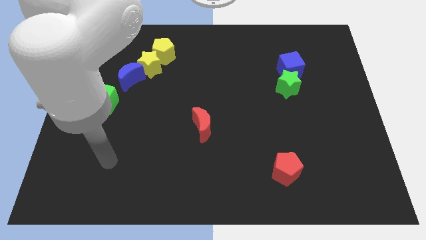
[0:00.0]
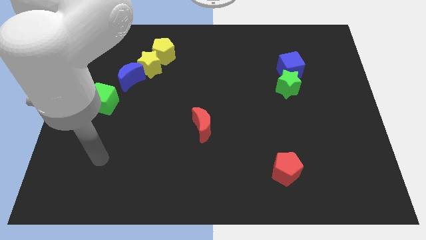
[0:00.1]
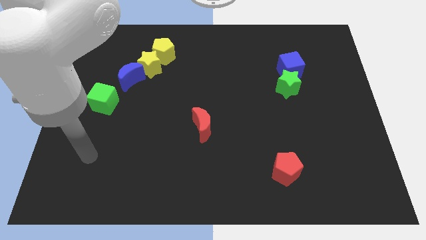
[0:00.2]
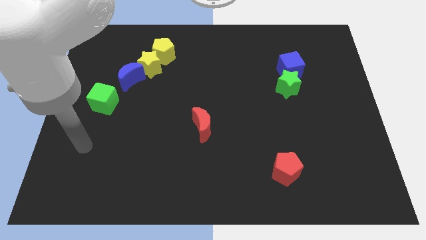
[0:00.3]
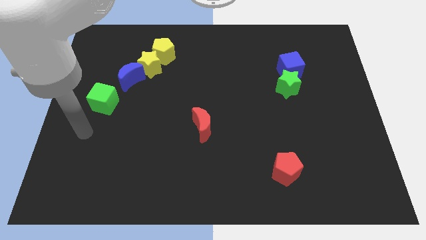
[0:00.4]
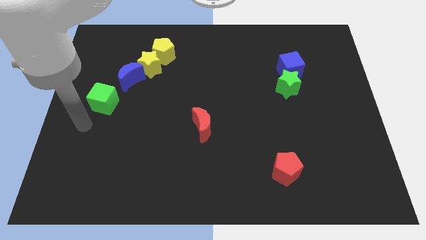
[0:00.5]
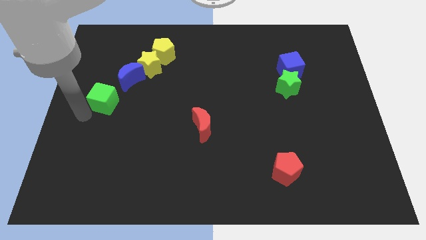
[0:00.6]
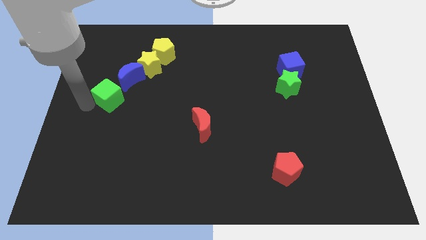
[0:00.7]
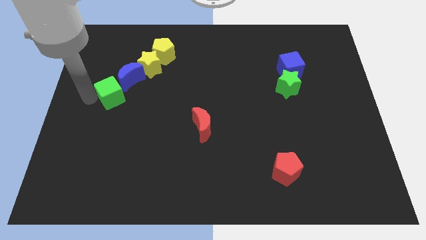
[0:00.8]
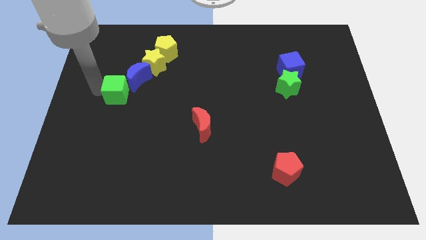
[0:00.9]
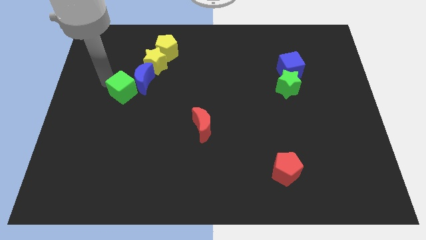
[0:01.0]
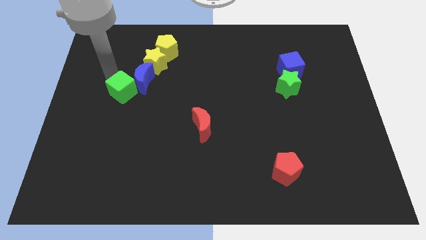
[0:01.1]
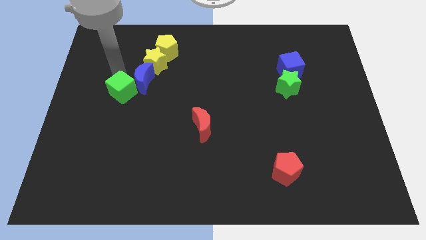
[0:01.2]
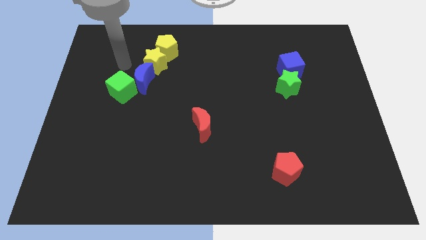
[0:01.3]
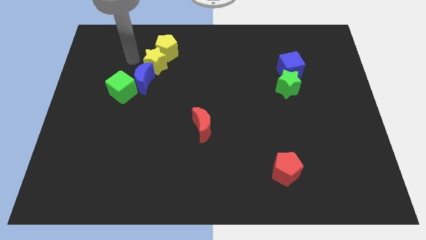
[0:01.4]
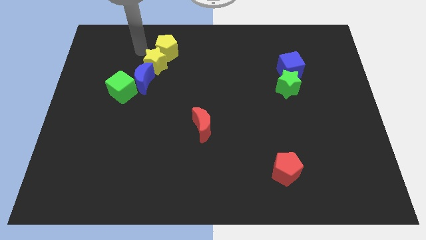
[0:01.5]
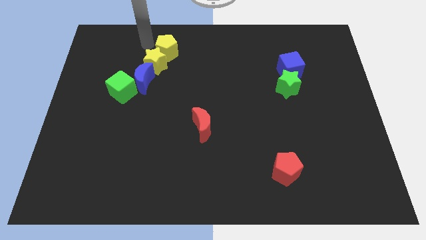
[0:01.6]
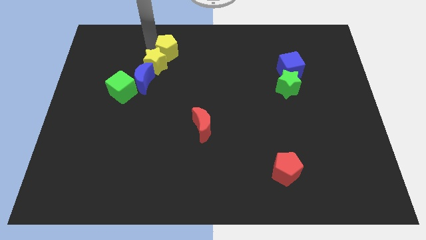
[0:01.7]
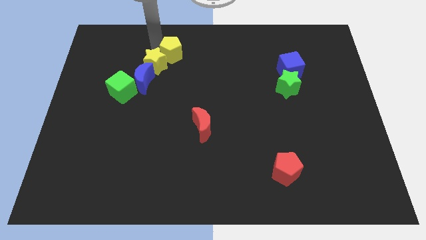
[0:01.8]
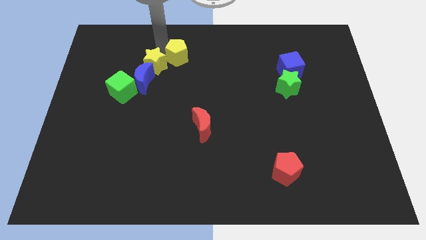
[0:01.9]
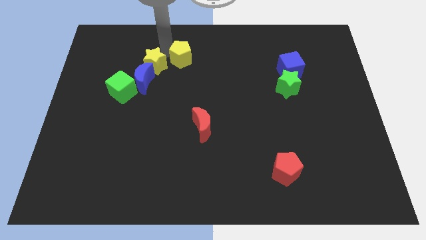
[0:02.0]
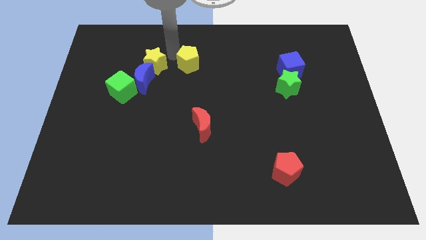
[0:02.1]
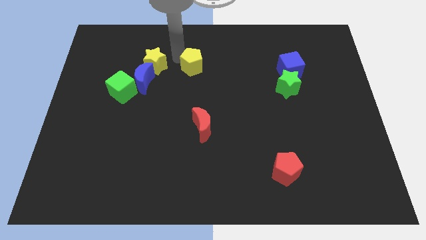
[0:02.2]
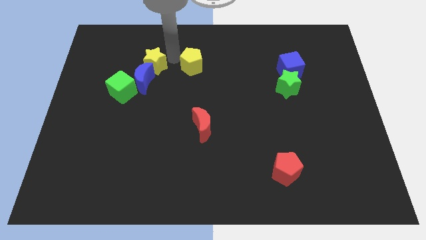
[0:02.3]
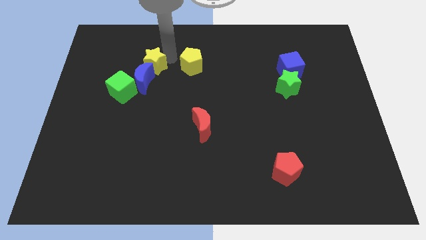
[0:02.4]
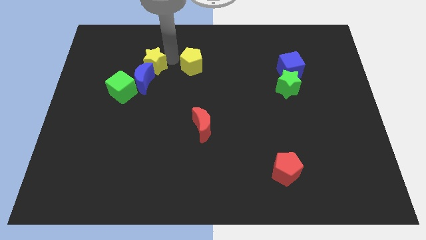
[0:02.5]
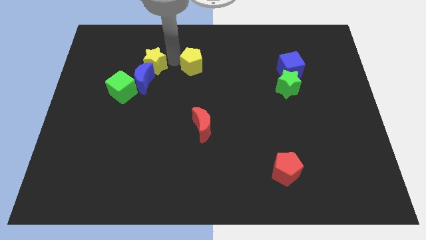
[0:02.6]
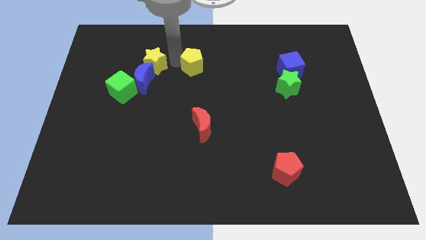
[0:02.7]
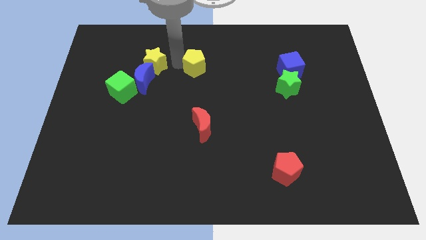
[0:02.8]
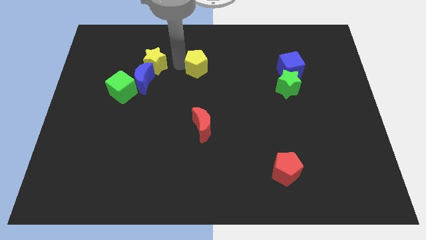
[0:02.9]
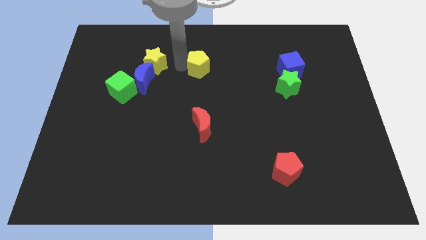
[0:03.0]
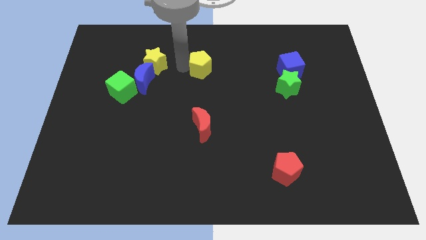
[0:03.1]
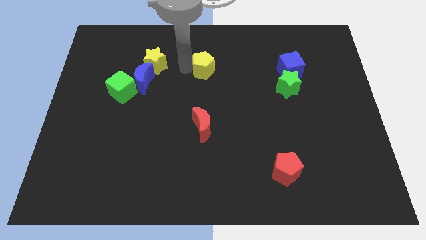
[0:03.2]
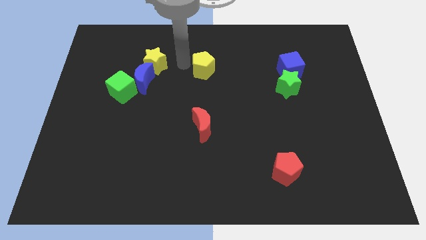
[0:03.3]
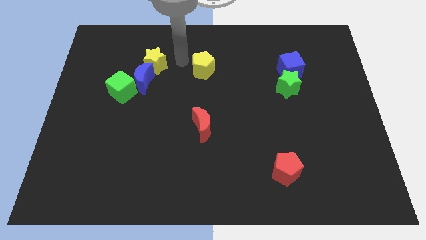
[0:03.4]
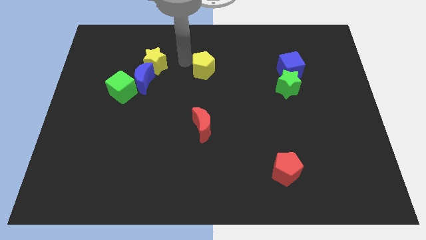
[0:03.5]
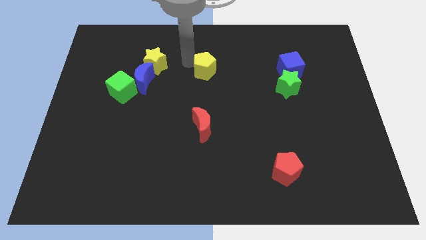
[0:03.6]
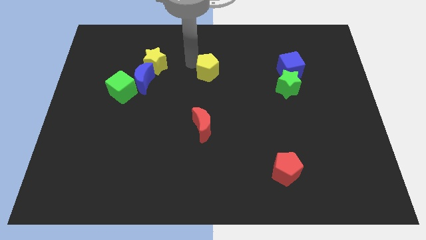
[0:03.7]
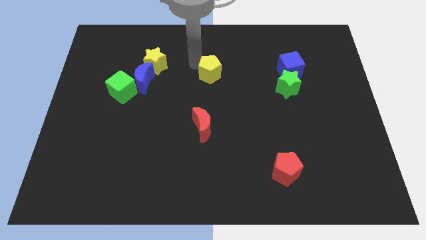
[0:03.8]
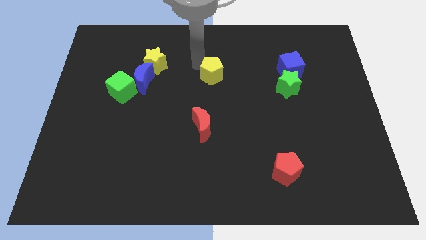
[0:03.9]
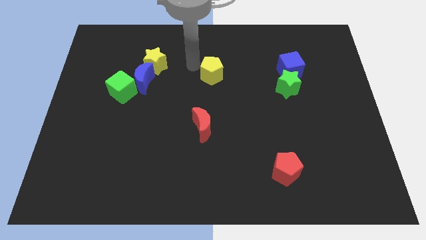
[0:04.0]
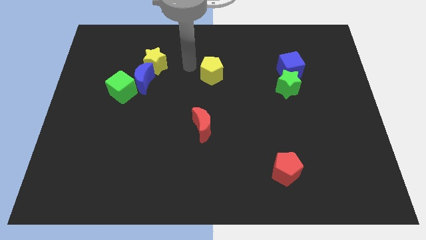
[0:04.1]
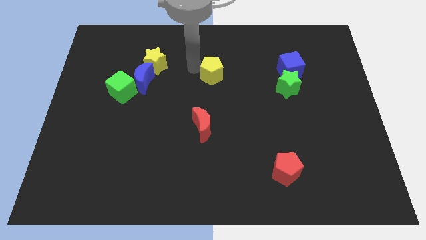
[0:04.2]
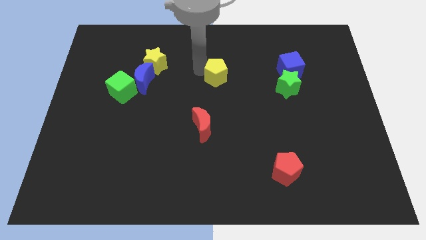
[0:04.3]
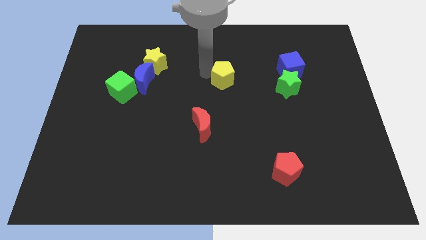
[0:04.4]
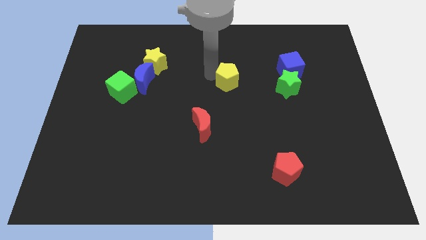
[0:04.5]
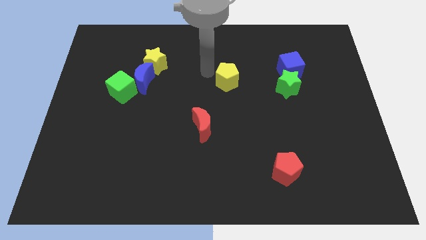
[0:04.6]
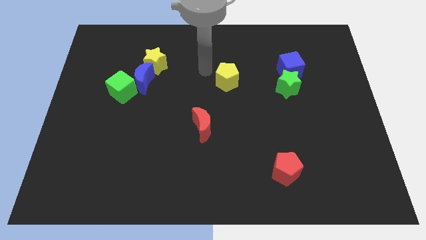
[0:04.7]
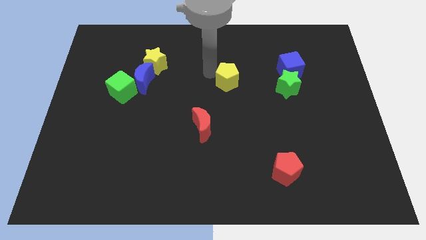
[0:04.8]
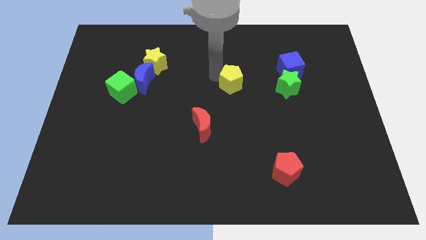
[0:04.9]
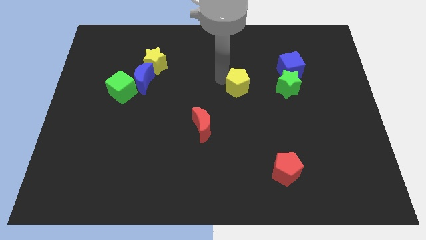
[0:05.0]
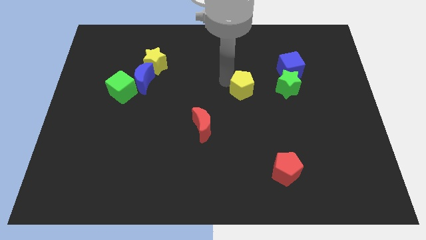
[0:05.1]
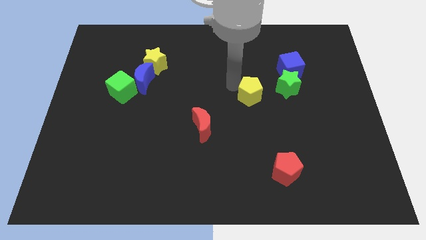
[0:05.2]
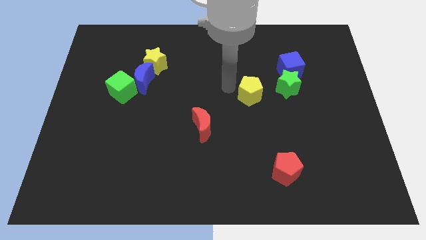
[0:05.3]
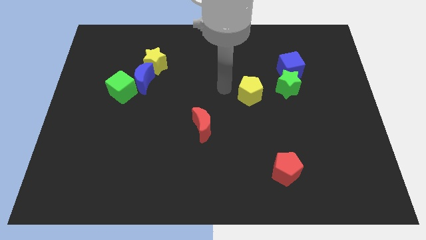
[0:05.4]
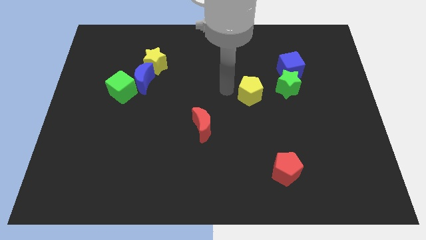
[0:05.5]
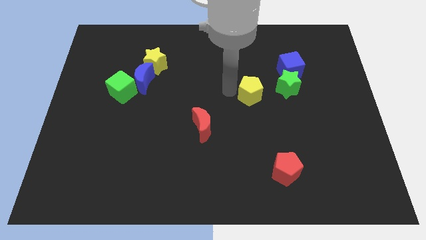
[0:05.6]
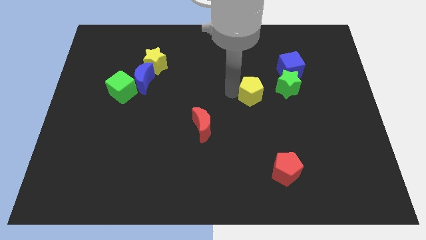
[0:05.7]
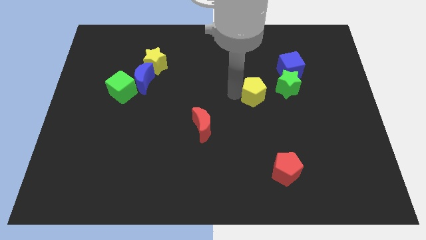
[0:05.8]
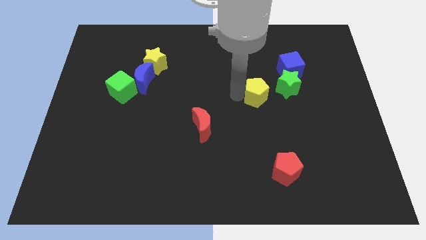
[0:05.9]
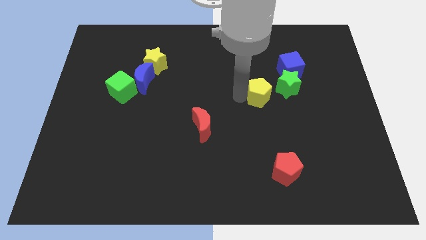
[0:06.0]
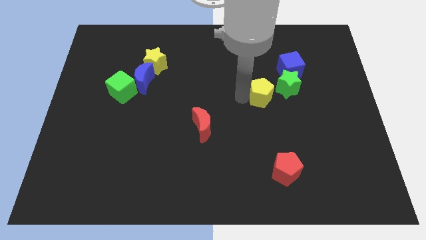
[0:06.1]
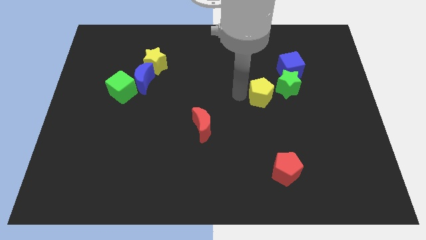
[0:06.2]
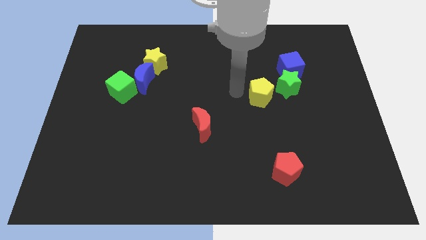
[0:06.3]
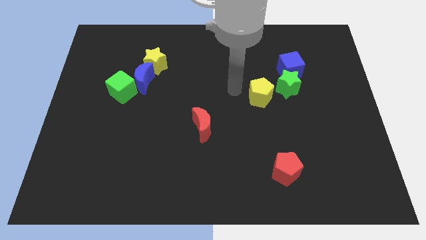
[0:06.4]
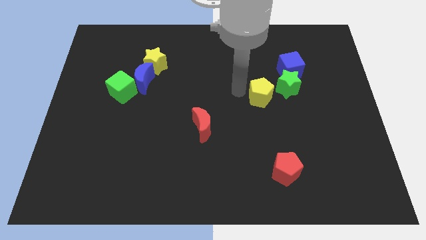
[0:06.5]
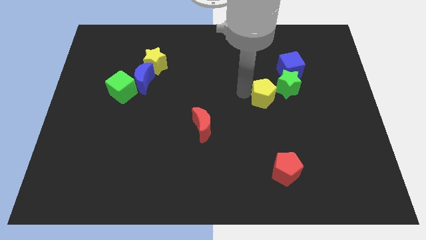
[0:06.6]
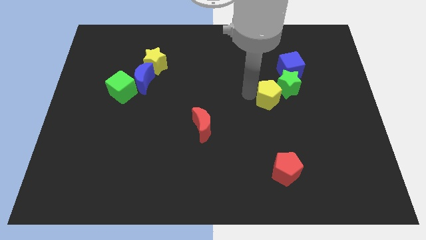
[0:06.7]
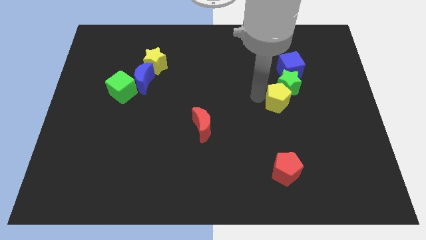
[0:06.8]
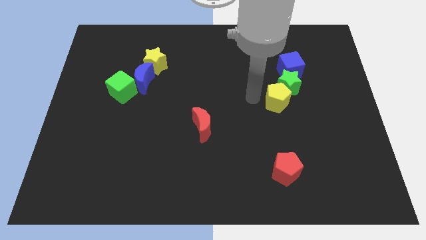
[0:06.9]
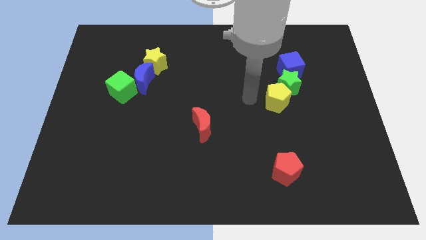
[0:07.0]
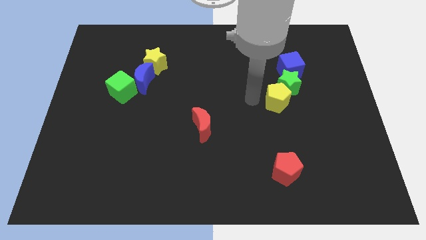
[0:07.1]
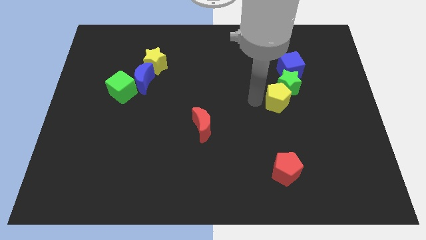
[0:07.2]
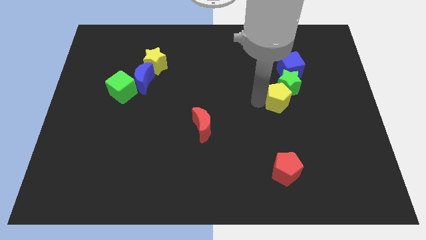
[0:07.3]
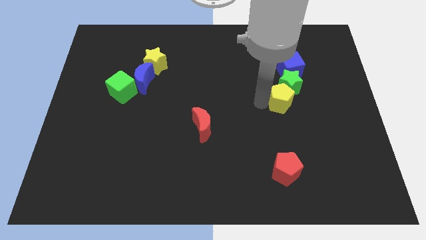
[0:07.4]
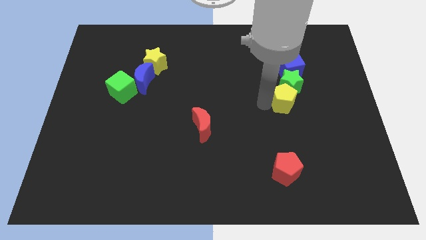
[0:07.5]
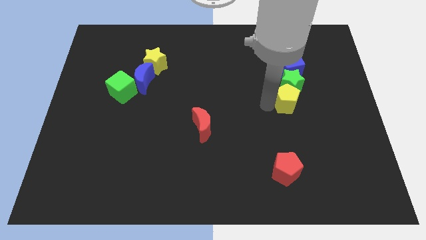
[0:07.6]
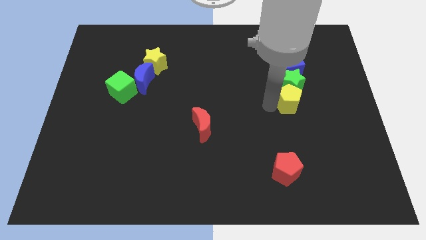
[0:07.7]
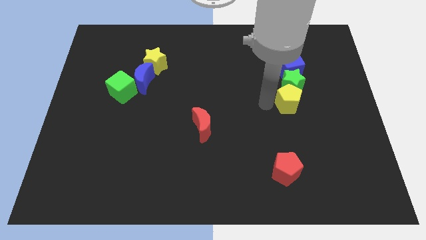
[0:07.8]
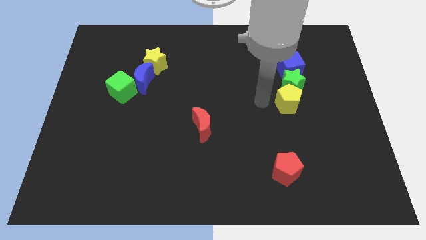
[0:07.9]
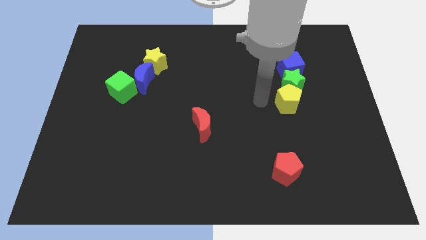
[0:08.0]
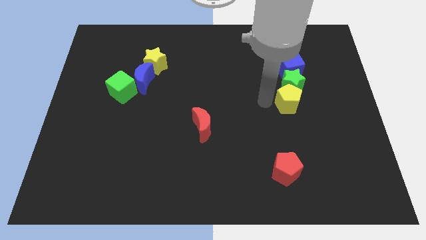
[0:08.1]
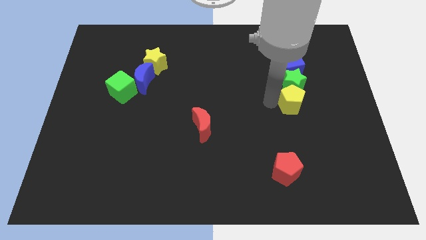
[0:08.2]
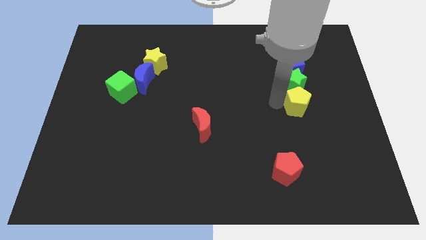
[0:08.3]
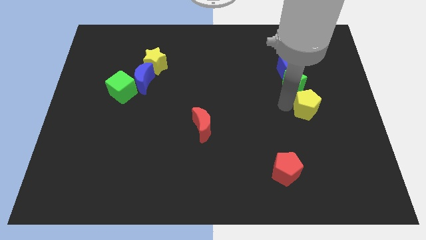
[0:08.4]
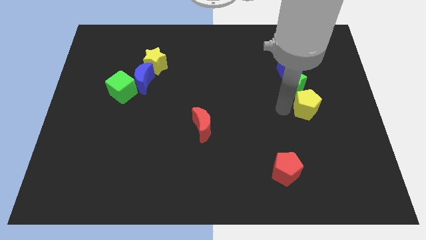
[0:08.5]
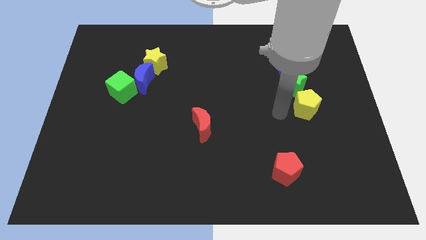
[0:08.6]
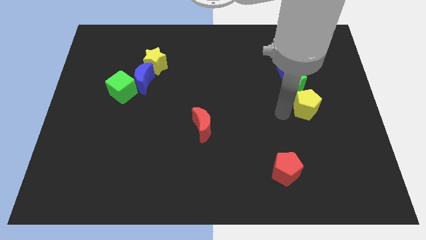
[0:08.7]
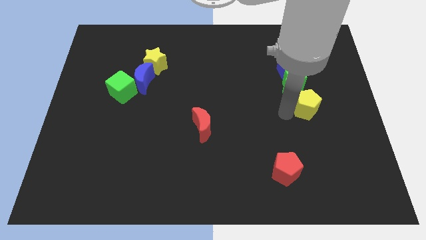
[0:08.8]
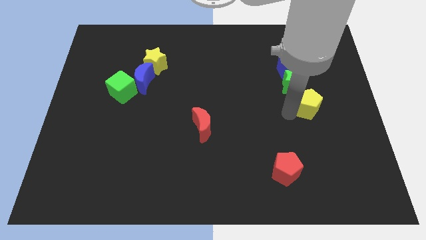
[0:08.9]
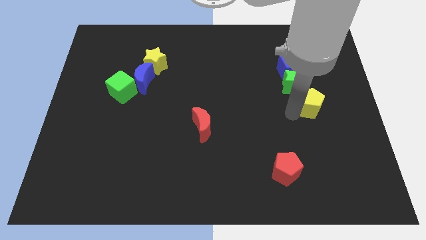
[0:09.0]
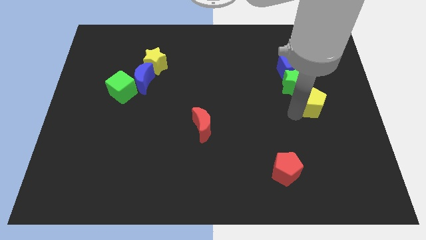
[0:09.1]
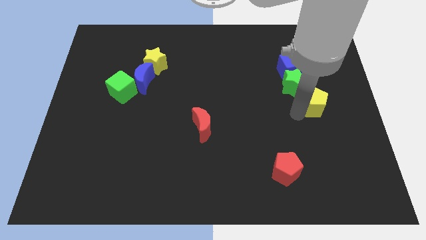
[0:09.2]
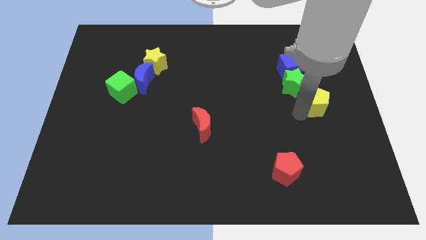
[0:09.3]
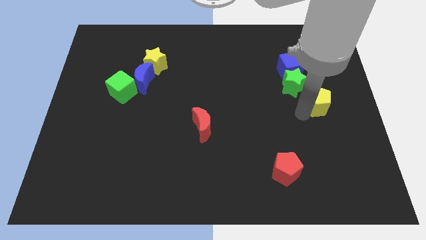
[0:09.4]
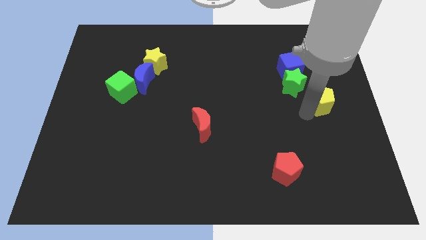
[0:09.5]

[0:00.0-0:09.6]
push the yellow pentagon to the right side of the board
